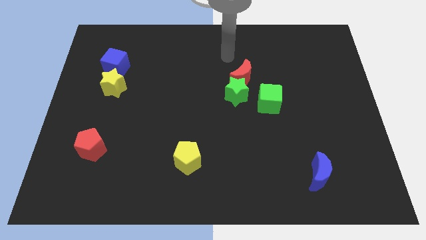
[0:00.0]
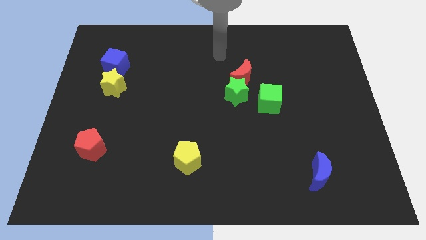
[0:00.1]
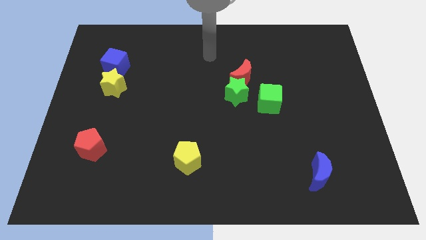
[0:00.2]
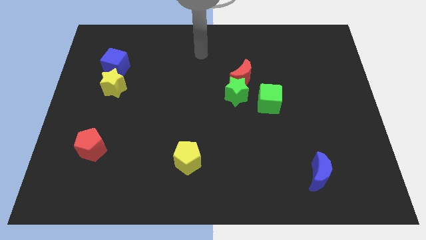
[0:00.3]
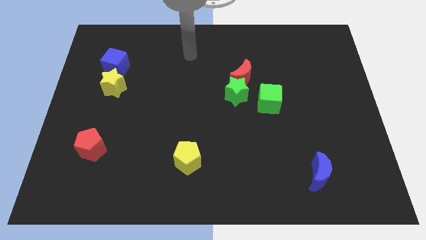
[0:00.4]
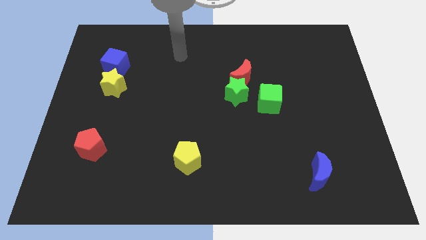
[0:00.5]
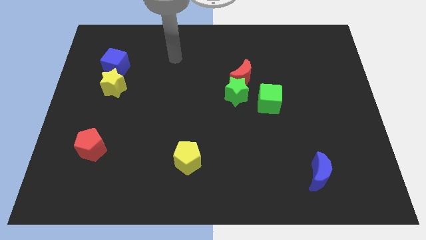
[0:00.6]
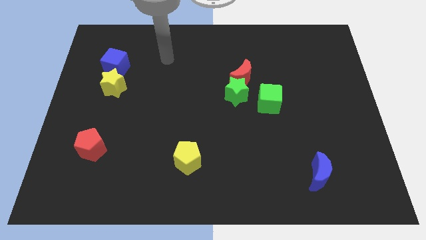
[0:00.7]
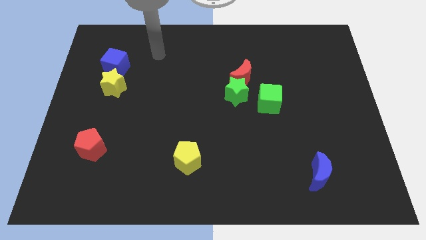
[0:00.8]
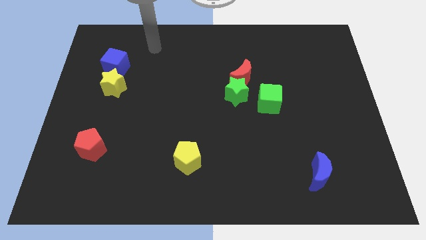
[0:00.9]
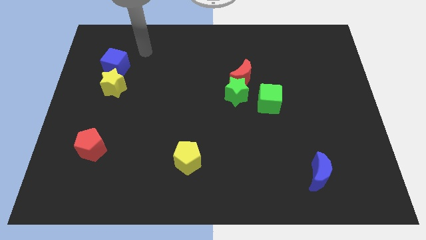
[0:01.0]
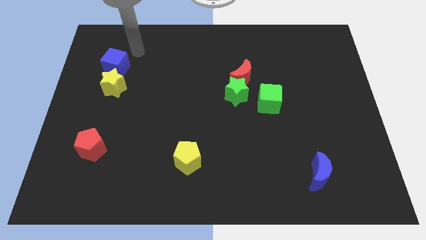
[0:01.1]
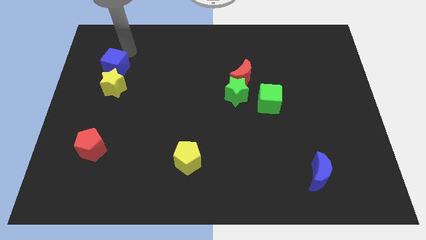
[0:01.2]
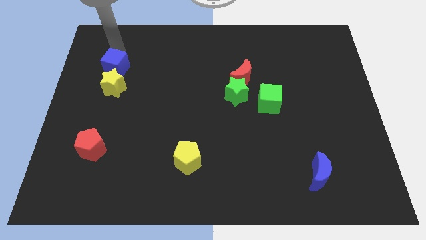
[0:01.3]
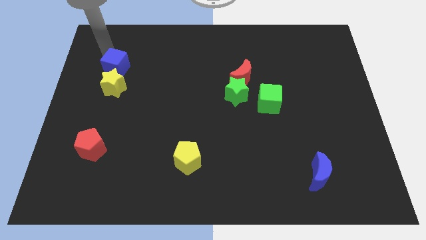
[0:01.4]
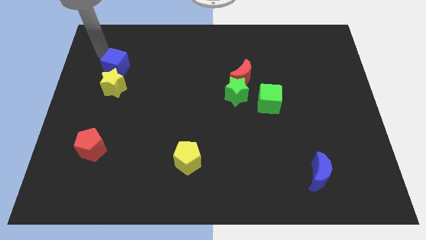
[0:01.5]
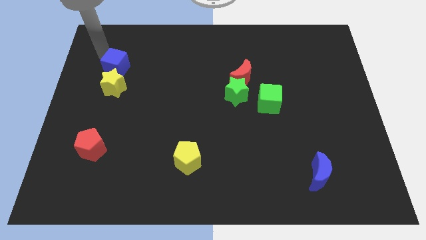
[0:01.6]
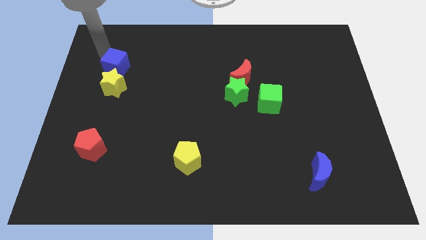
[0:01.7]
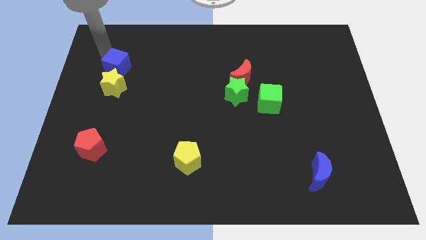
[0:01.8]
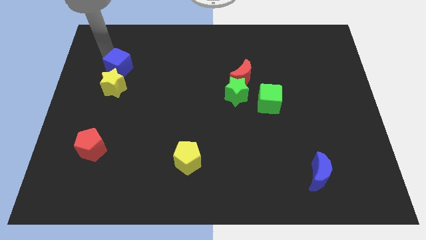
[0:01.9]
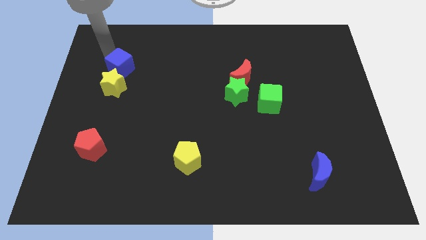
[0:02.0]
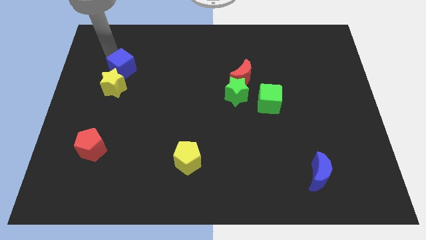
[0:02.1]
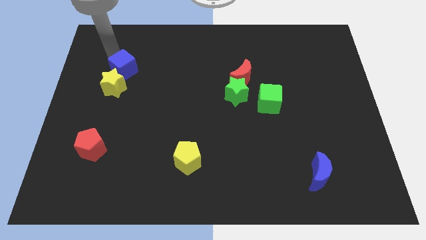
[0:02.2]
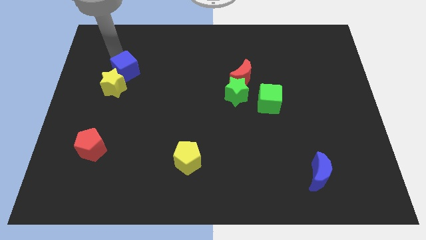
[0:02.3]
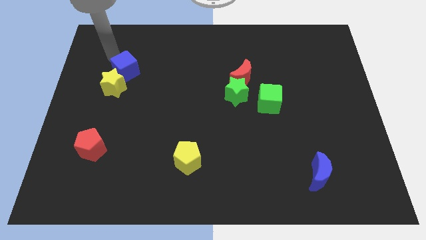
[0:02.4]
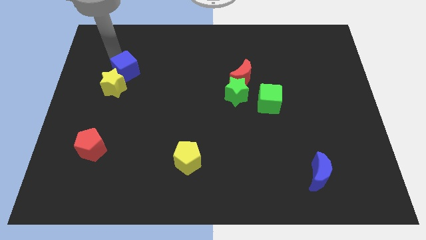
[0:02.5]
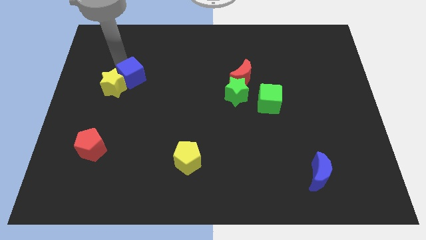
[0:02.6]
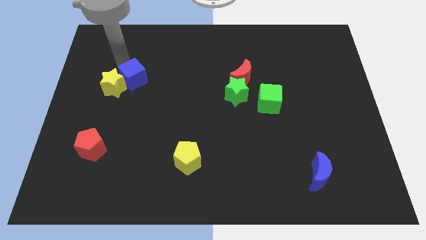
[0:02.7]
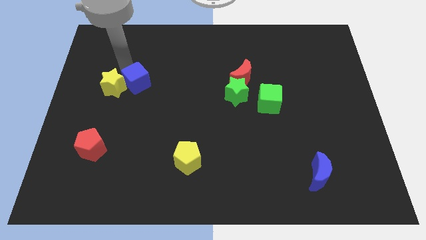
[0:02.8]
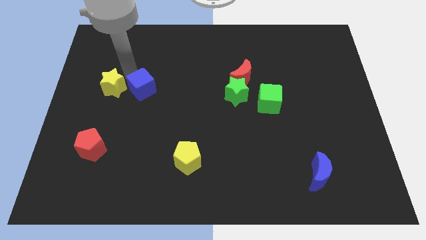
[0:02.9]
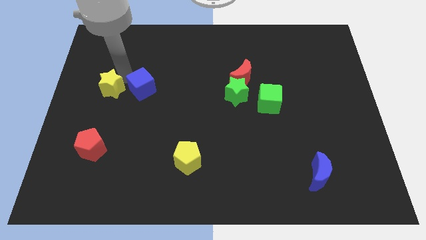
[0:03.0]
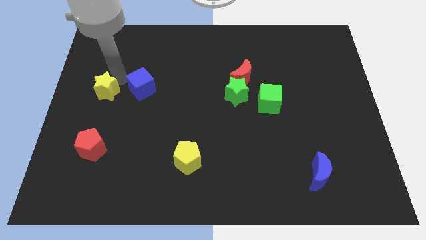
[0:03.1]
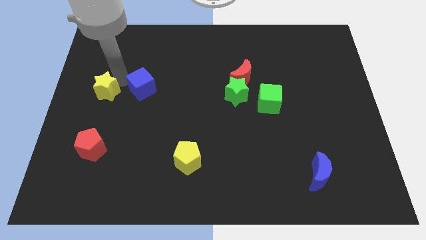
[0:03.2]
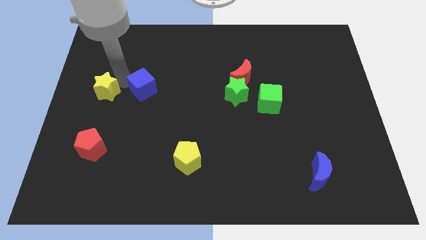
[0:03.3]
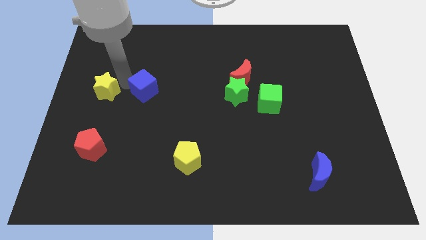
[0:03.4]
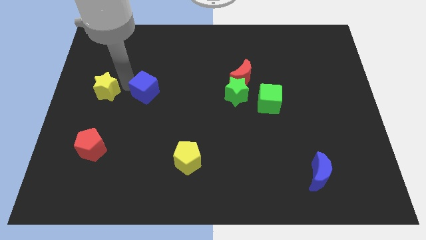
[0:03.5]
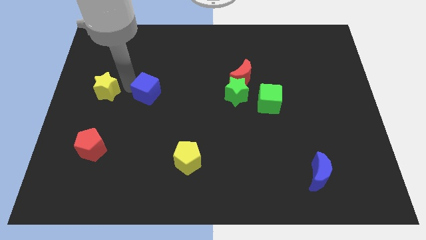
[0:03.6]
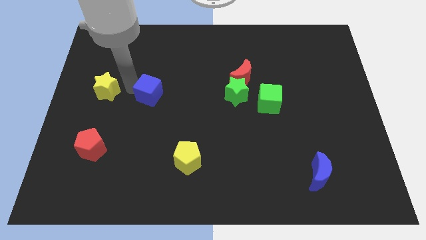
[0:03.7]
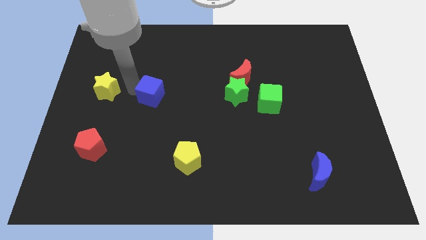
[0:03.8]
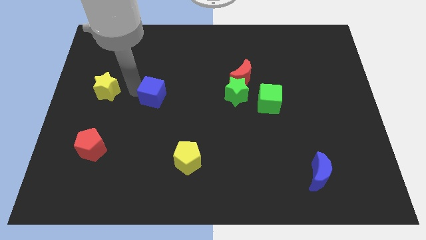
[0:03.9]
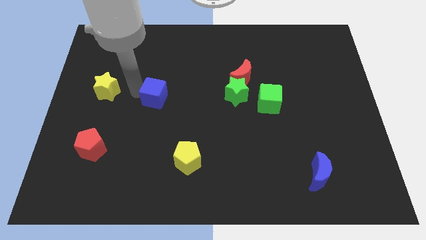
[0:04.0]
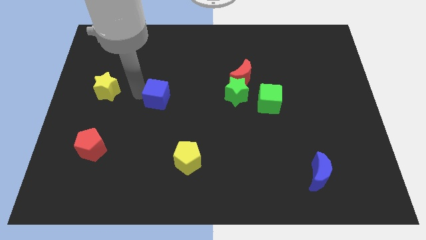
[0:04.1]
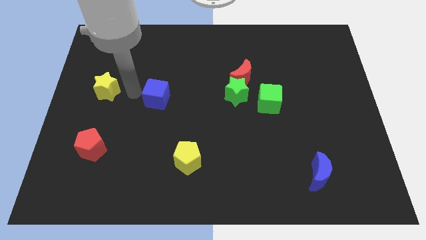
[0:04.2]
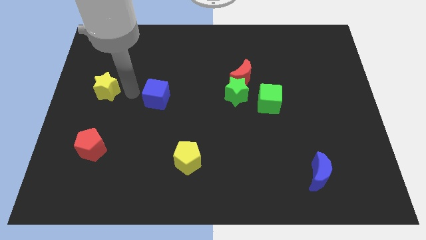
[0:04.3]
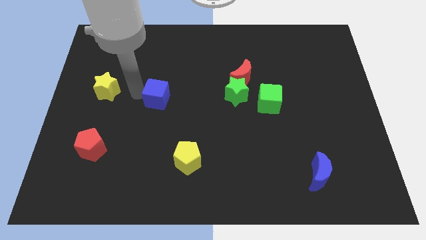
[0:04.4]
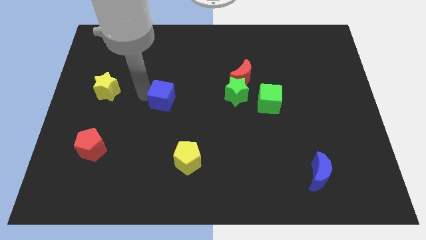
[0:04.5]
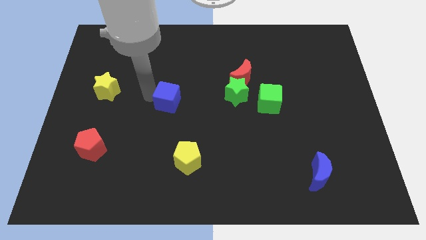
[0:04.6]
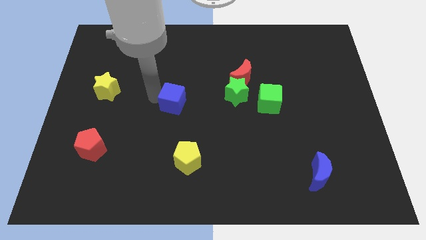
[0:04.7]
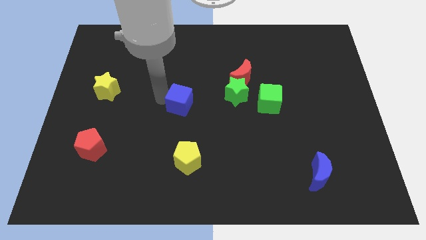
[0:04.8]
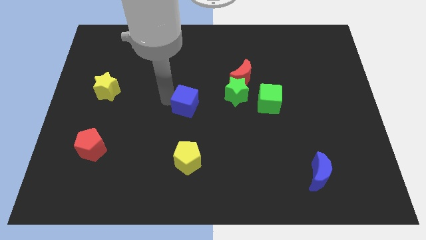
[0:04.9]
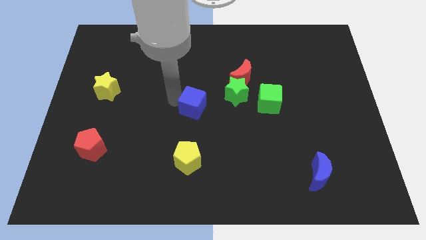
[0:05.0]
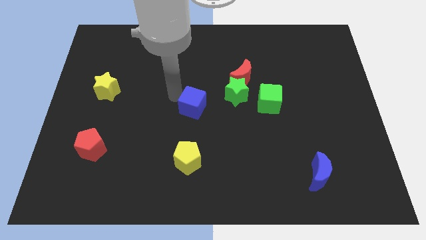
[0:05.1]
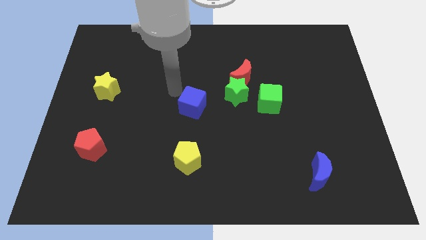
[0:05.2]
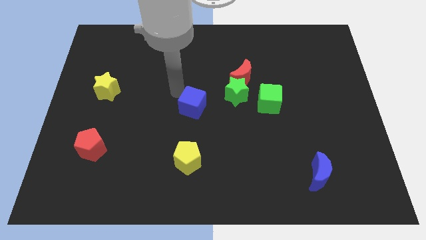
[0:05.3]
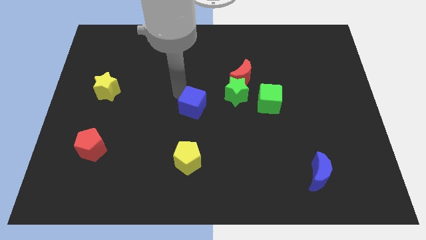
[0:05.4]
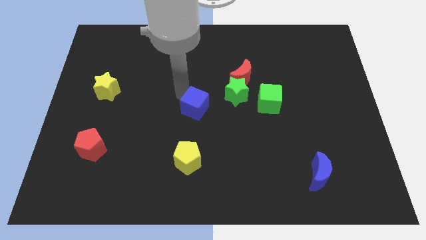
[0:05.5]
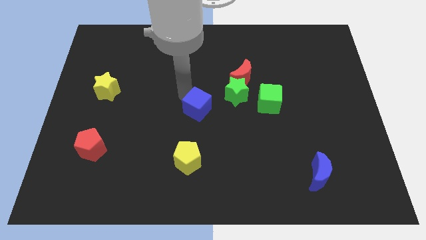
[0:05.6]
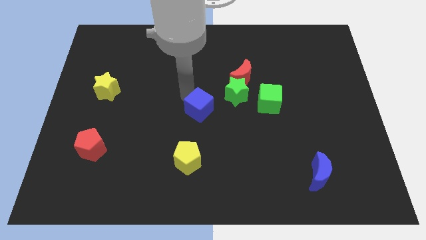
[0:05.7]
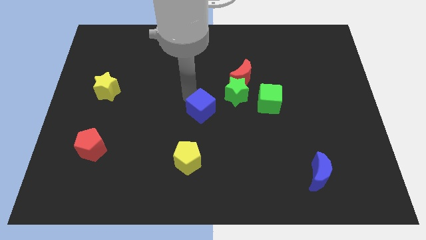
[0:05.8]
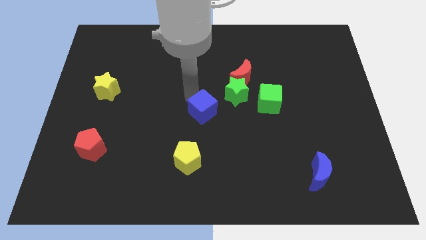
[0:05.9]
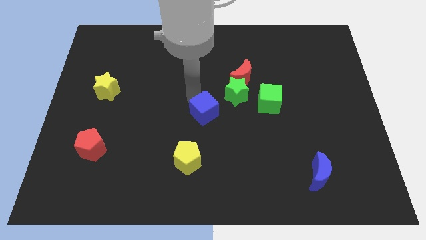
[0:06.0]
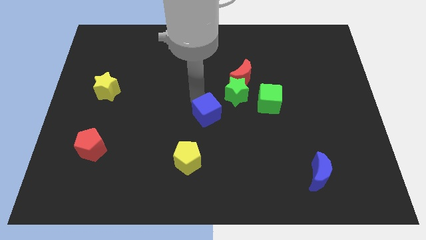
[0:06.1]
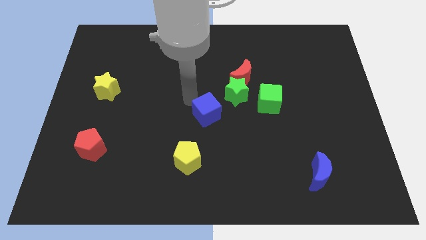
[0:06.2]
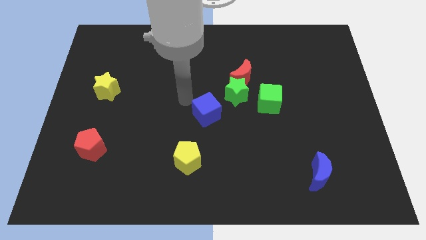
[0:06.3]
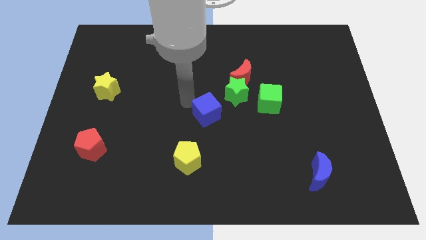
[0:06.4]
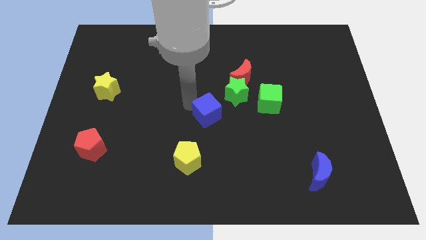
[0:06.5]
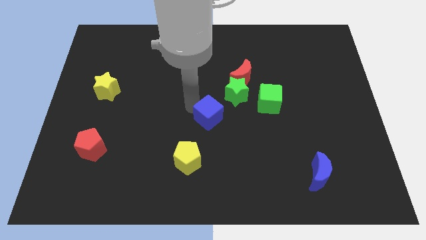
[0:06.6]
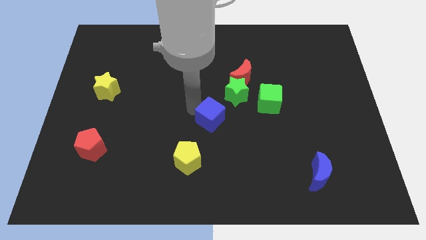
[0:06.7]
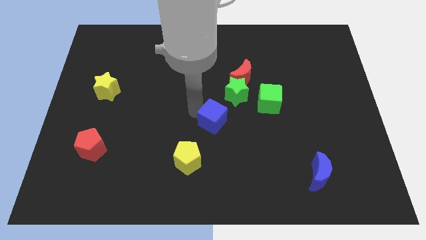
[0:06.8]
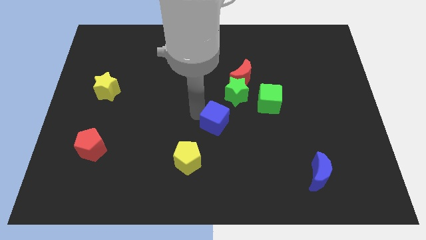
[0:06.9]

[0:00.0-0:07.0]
slide the blue cube to the bottom side of the green star
